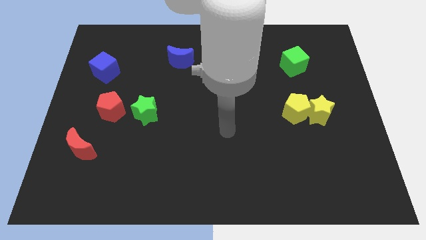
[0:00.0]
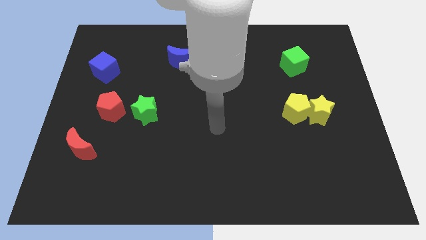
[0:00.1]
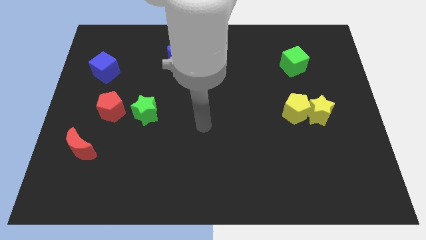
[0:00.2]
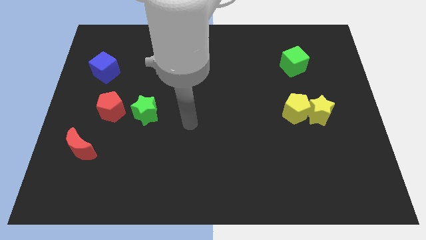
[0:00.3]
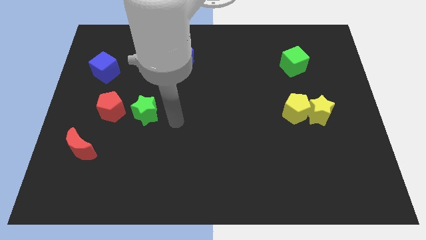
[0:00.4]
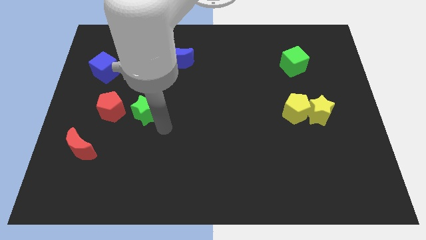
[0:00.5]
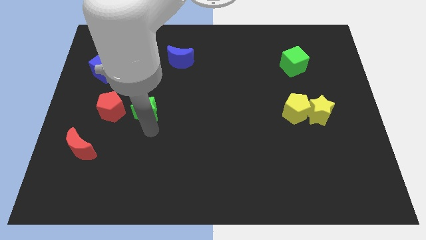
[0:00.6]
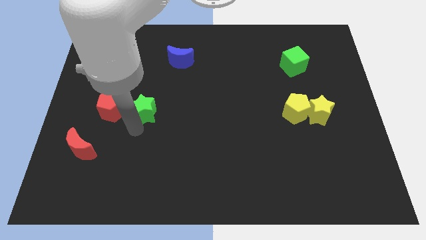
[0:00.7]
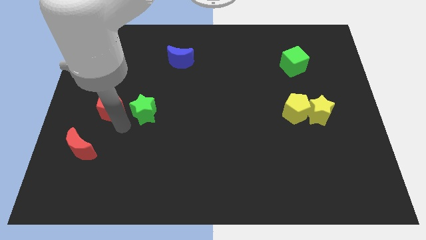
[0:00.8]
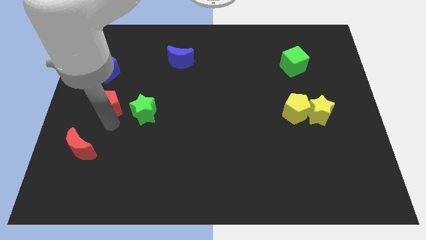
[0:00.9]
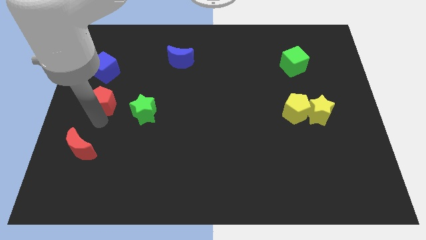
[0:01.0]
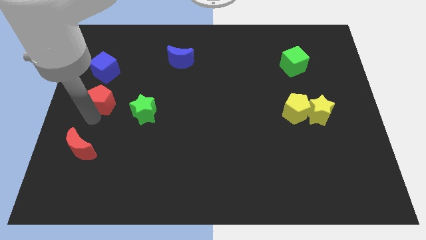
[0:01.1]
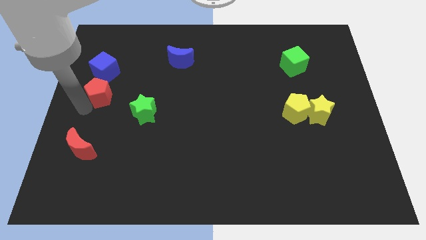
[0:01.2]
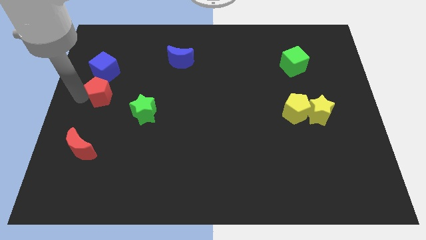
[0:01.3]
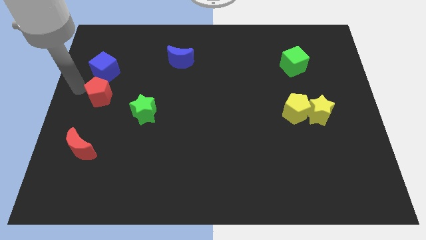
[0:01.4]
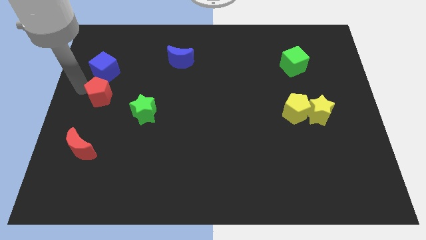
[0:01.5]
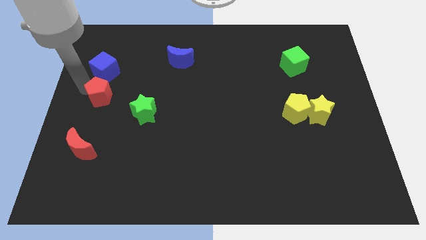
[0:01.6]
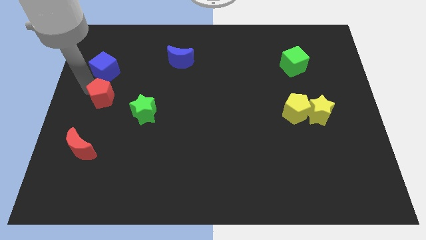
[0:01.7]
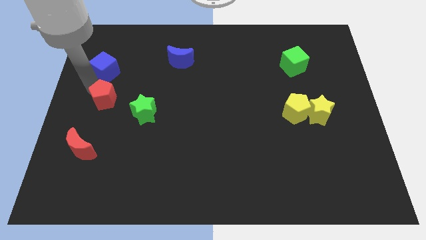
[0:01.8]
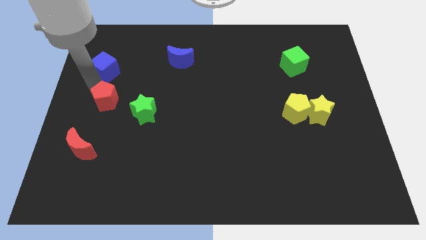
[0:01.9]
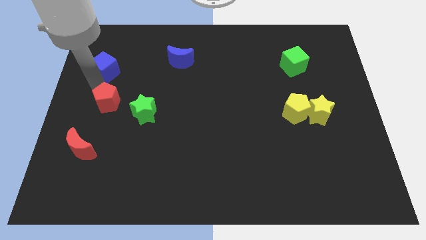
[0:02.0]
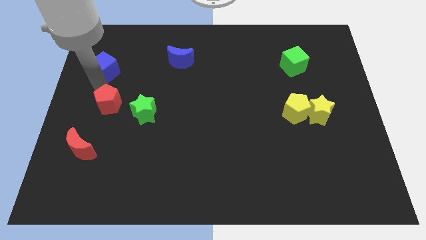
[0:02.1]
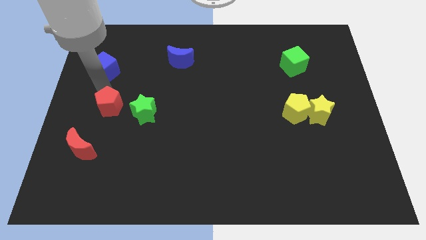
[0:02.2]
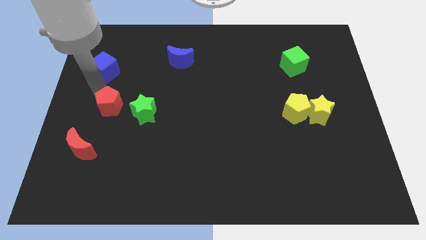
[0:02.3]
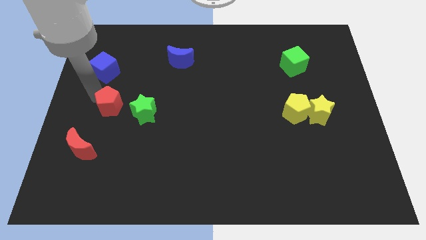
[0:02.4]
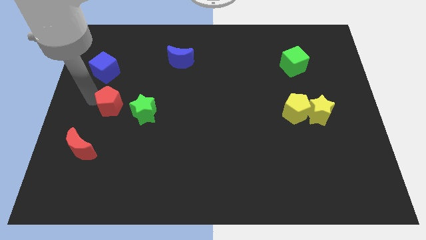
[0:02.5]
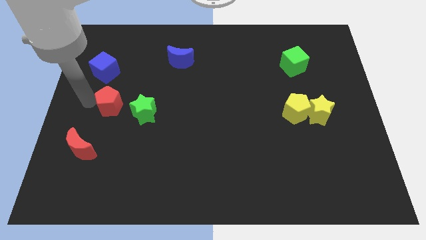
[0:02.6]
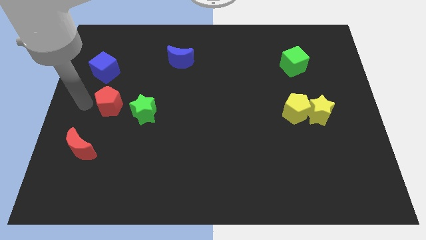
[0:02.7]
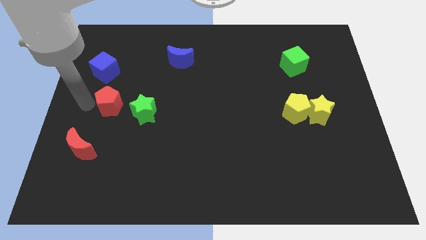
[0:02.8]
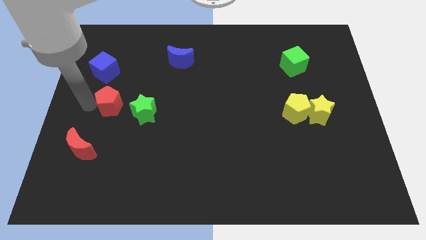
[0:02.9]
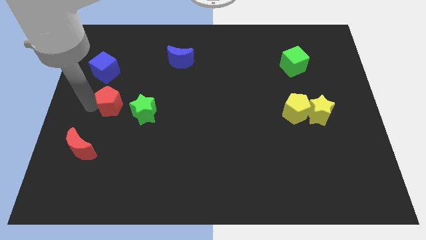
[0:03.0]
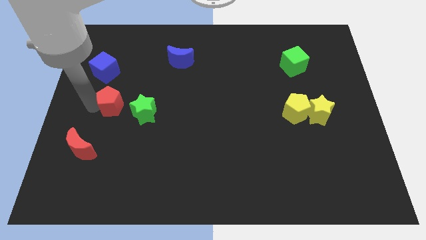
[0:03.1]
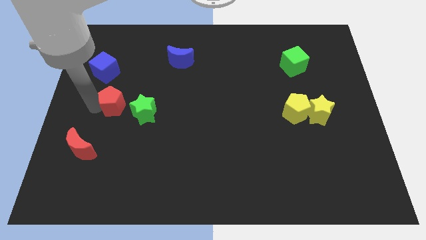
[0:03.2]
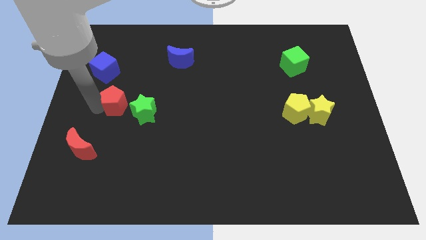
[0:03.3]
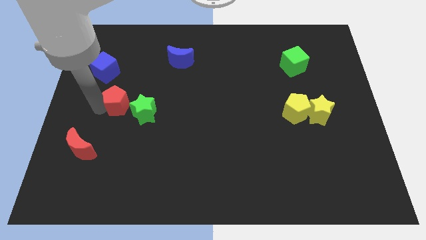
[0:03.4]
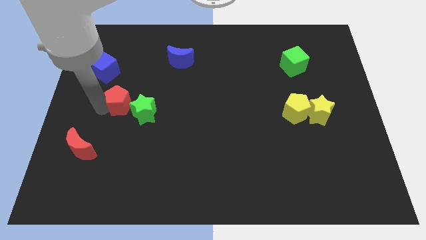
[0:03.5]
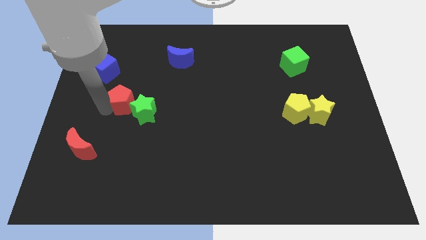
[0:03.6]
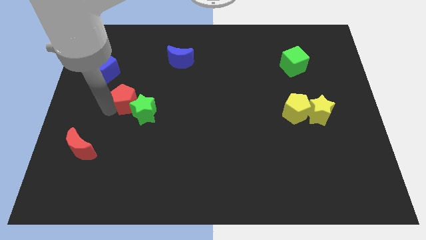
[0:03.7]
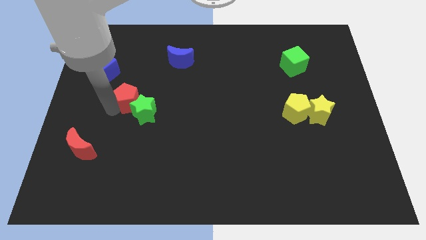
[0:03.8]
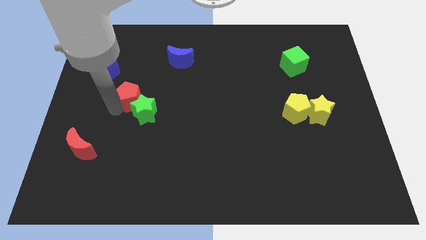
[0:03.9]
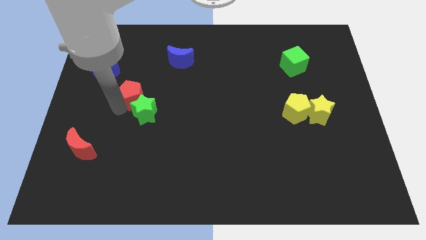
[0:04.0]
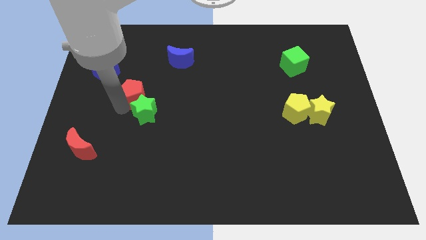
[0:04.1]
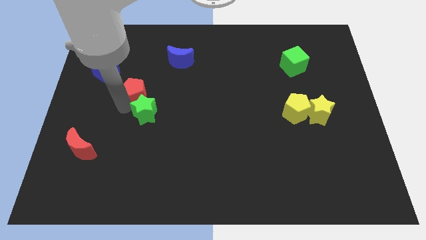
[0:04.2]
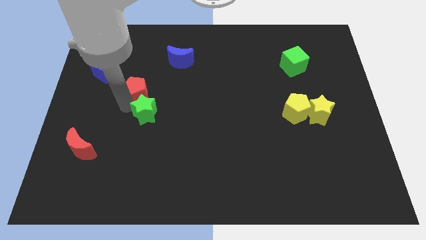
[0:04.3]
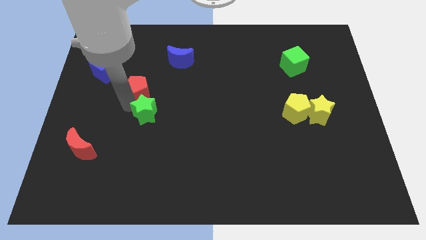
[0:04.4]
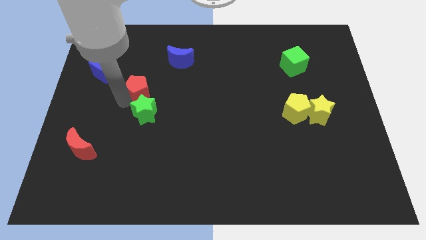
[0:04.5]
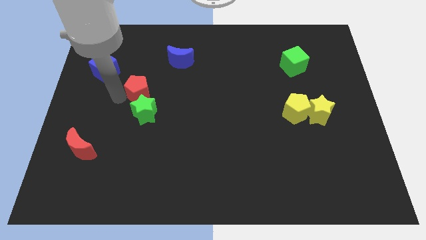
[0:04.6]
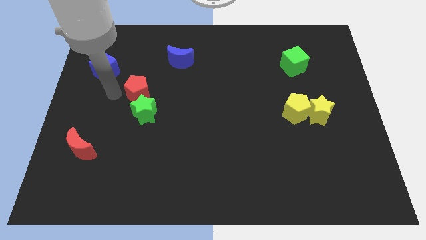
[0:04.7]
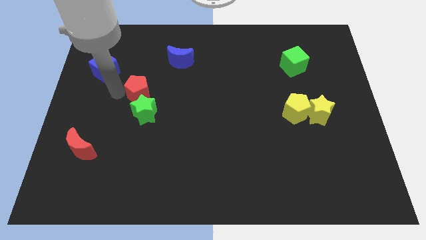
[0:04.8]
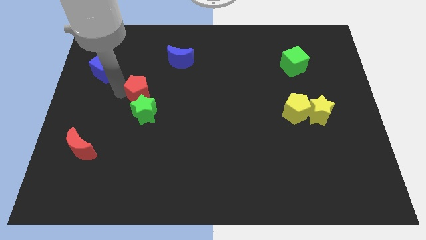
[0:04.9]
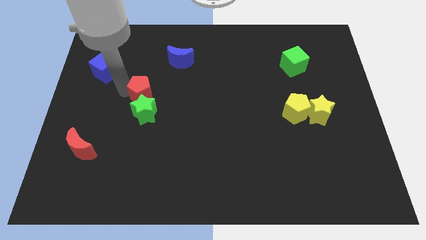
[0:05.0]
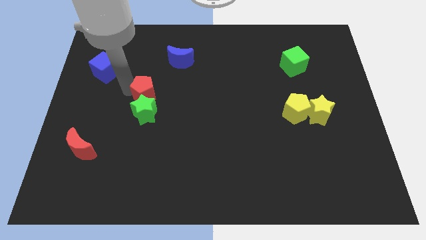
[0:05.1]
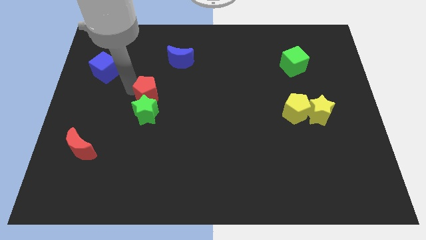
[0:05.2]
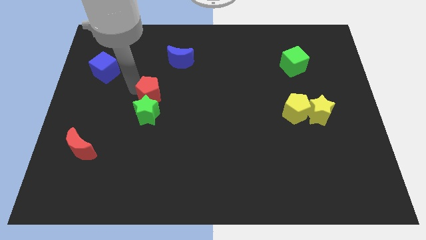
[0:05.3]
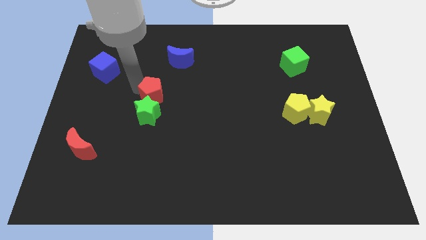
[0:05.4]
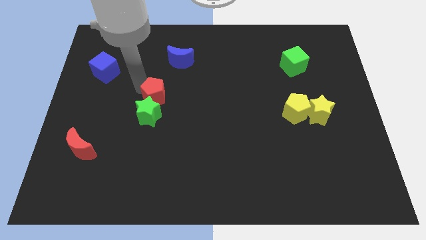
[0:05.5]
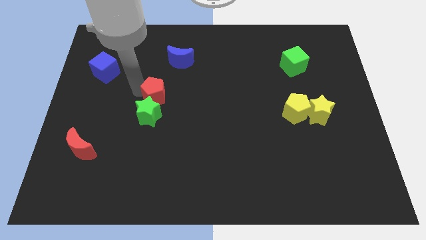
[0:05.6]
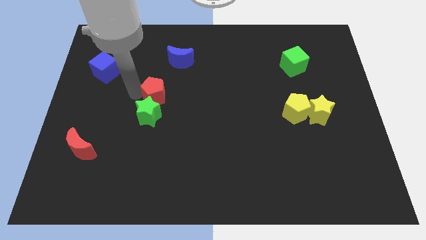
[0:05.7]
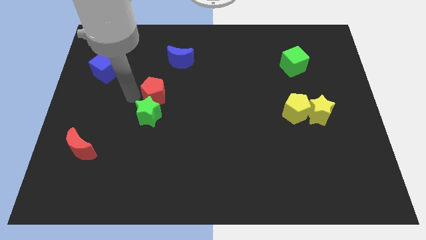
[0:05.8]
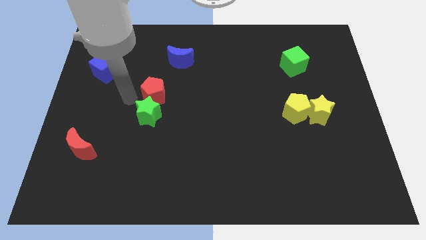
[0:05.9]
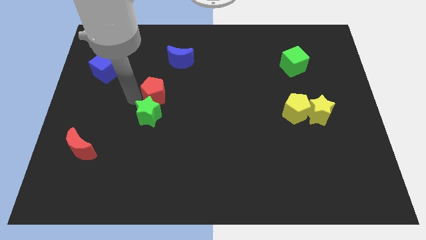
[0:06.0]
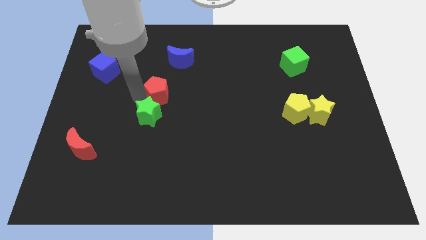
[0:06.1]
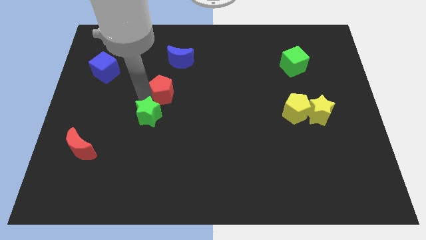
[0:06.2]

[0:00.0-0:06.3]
push the red pentagon to the middle
